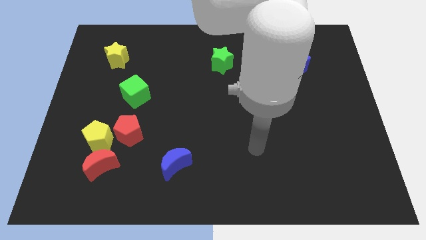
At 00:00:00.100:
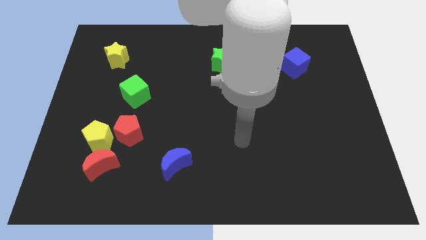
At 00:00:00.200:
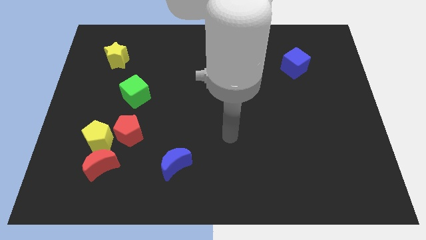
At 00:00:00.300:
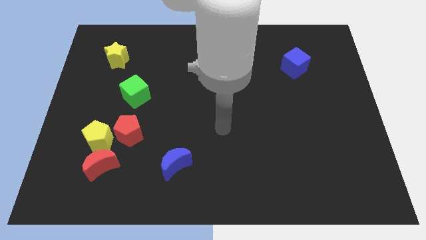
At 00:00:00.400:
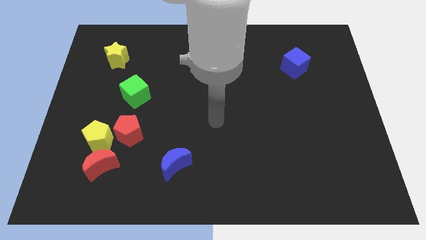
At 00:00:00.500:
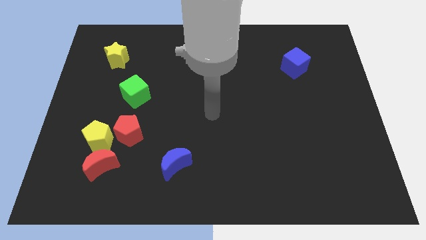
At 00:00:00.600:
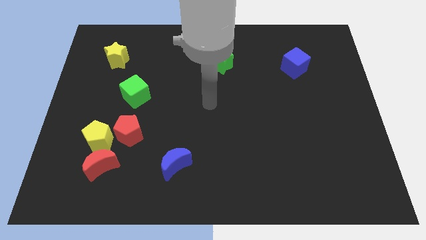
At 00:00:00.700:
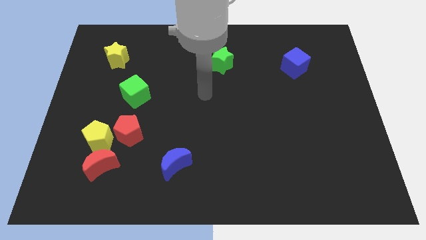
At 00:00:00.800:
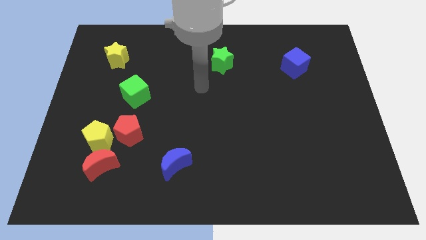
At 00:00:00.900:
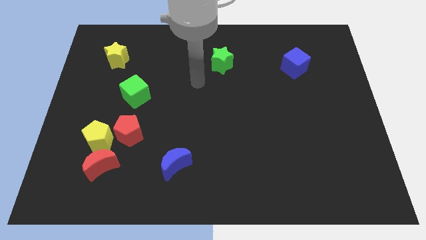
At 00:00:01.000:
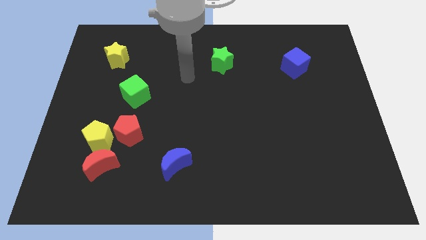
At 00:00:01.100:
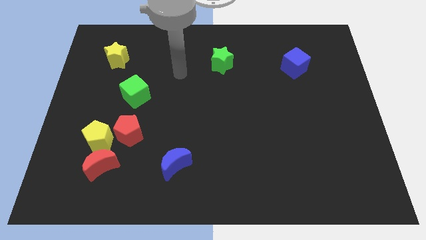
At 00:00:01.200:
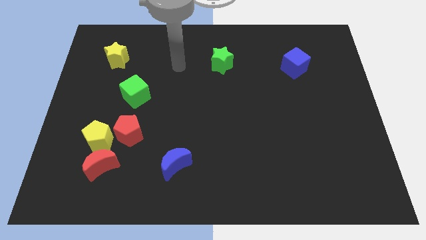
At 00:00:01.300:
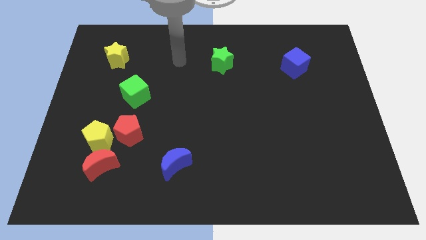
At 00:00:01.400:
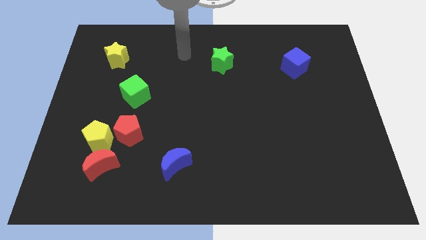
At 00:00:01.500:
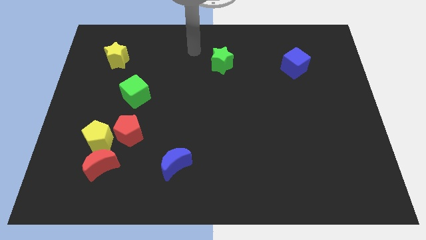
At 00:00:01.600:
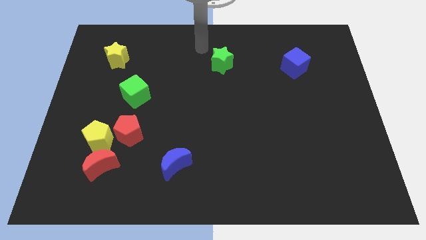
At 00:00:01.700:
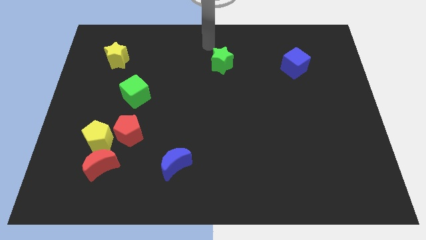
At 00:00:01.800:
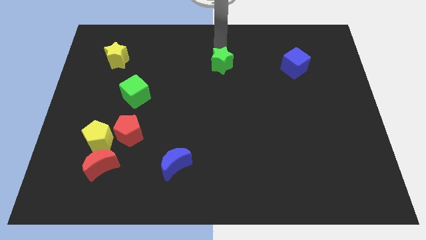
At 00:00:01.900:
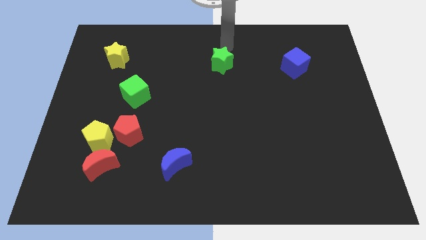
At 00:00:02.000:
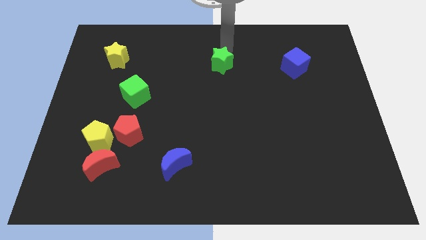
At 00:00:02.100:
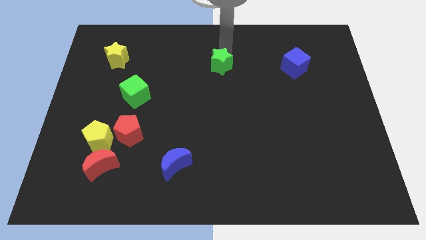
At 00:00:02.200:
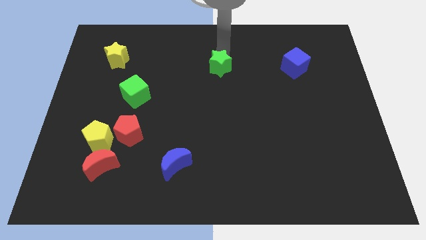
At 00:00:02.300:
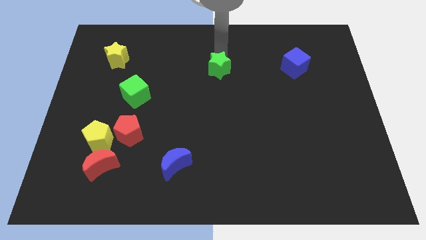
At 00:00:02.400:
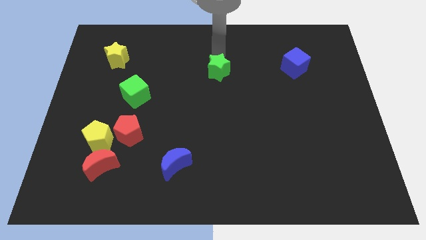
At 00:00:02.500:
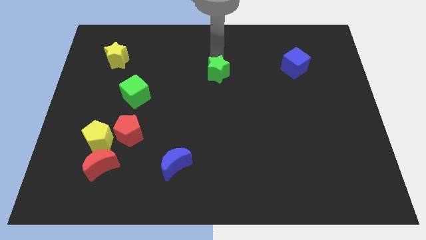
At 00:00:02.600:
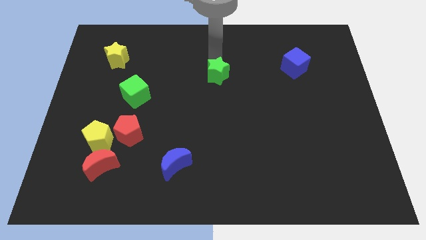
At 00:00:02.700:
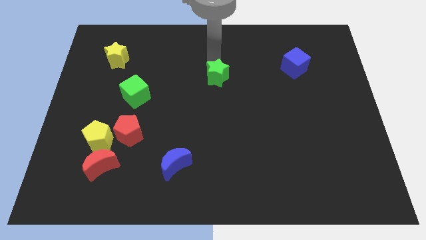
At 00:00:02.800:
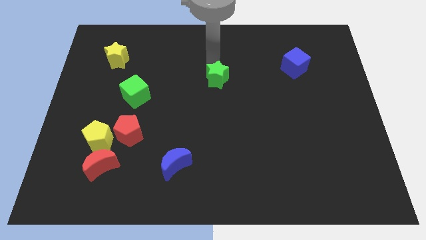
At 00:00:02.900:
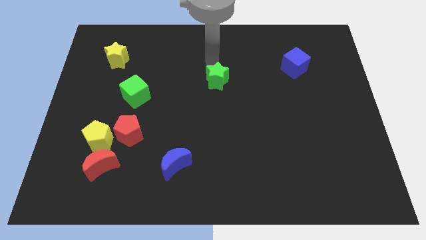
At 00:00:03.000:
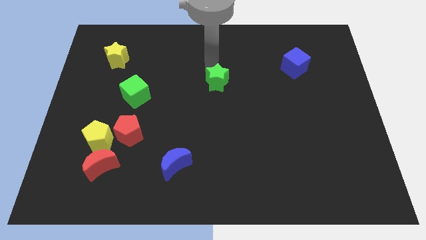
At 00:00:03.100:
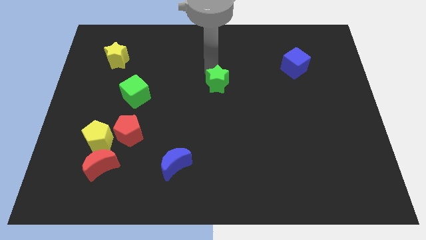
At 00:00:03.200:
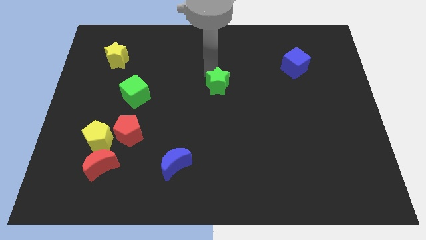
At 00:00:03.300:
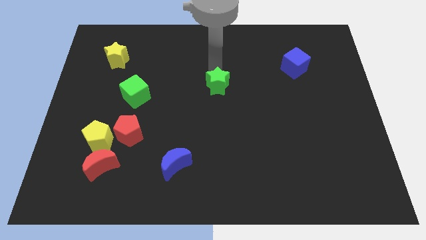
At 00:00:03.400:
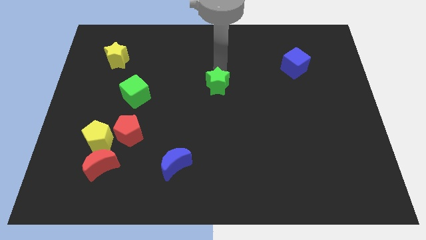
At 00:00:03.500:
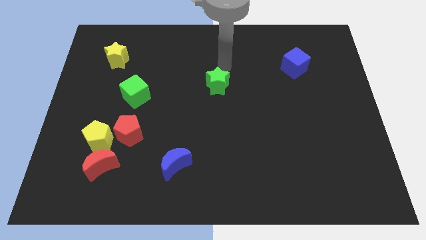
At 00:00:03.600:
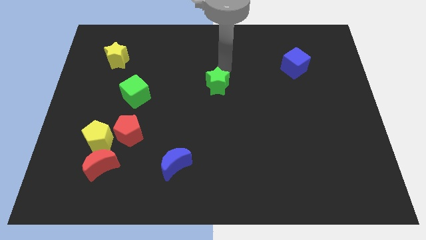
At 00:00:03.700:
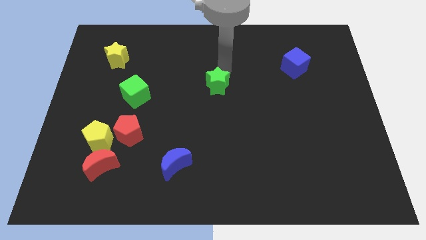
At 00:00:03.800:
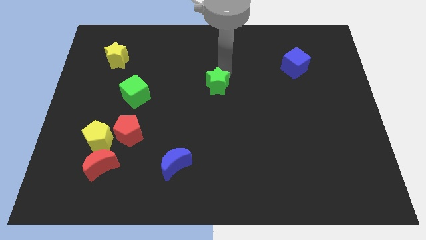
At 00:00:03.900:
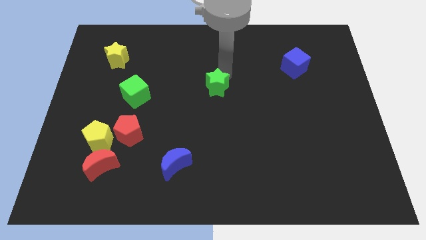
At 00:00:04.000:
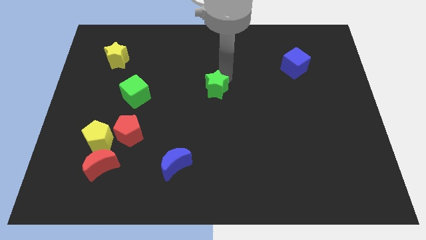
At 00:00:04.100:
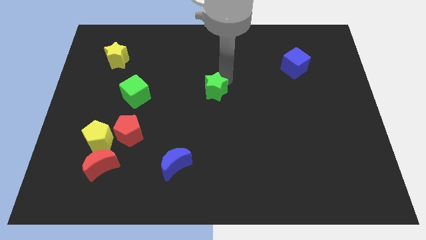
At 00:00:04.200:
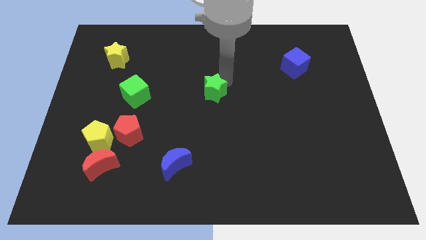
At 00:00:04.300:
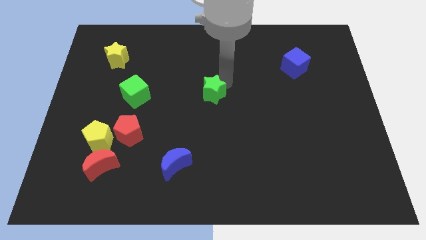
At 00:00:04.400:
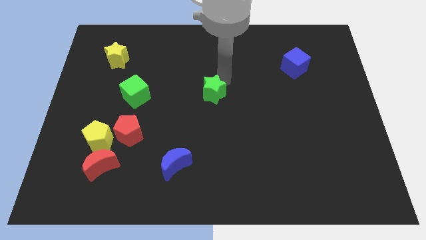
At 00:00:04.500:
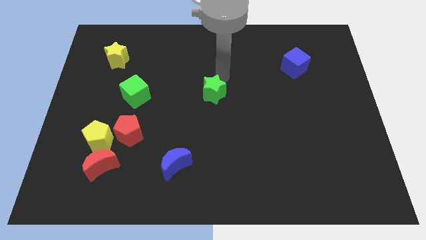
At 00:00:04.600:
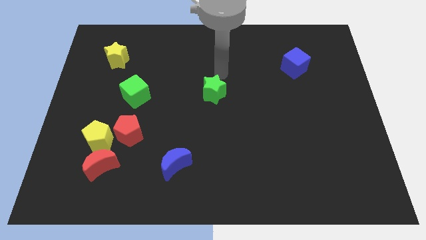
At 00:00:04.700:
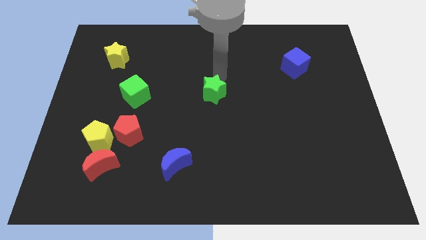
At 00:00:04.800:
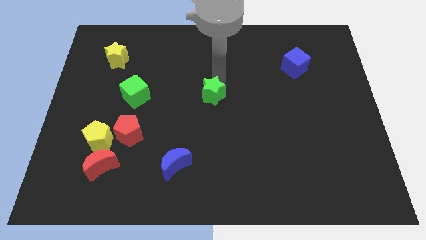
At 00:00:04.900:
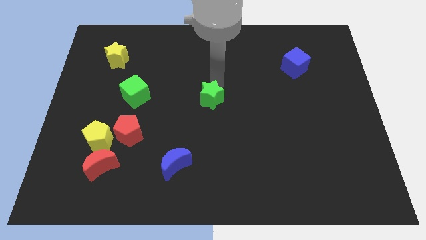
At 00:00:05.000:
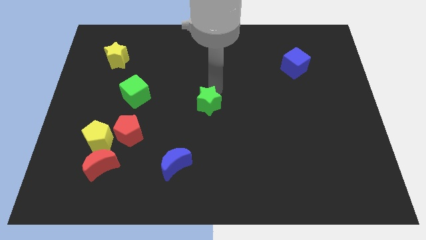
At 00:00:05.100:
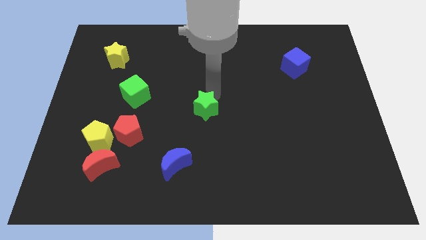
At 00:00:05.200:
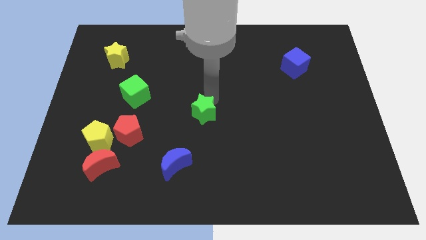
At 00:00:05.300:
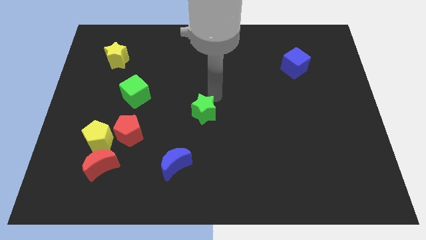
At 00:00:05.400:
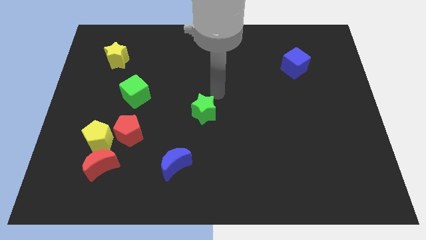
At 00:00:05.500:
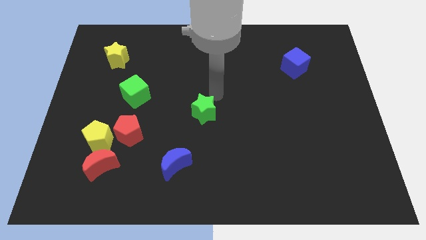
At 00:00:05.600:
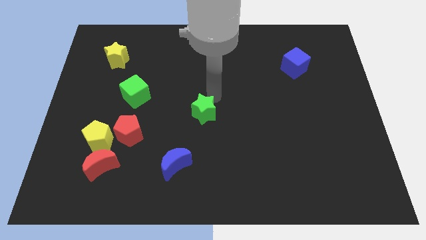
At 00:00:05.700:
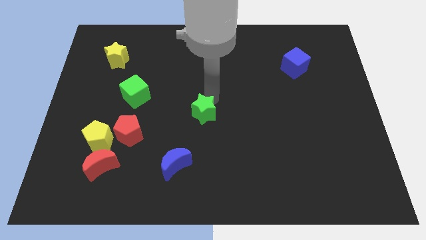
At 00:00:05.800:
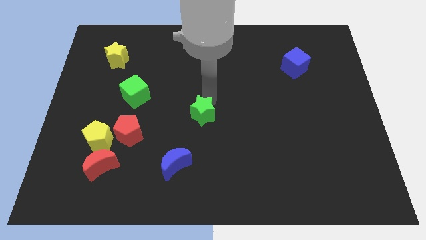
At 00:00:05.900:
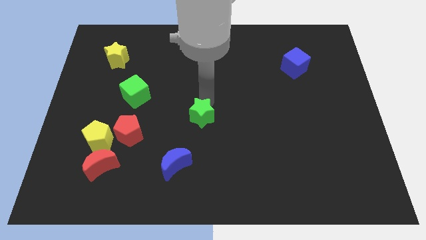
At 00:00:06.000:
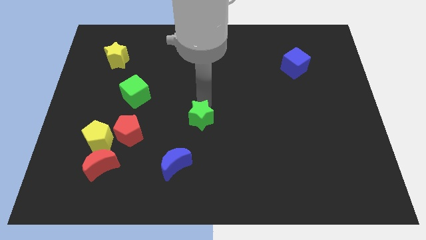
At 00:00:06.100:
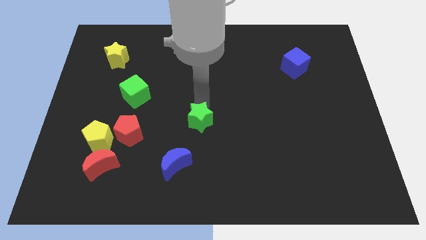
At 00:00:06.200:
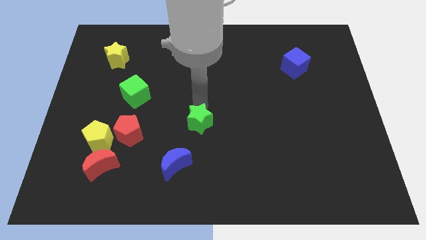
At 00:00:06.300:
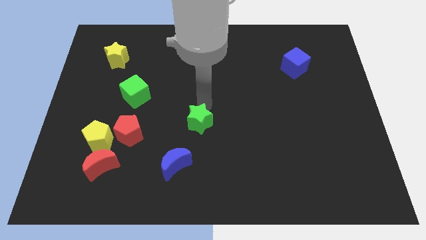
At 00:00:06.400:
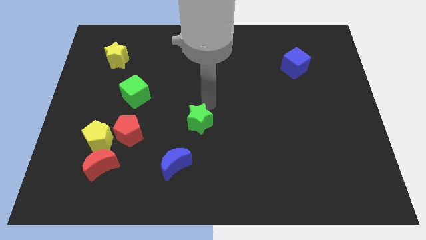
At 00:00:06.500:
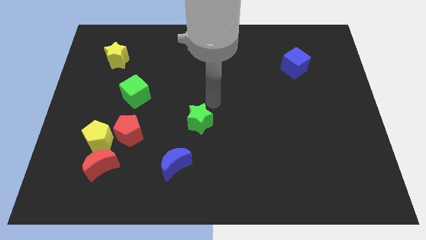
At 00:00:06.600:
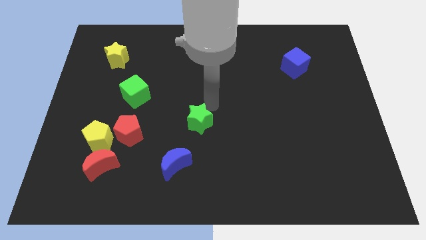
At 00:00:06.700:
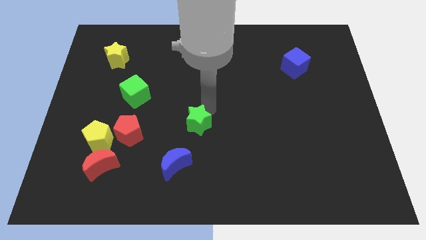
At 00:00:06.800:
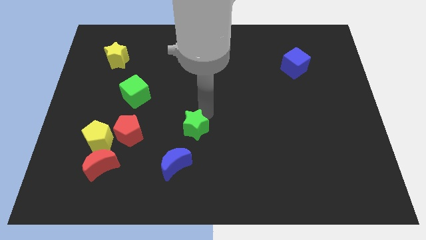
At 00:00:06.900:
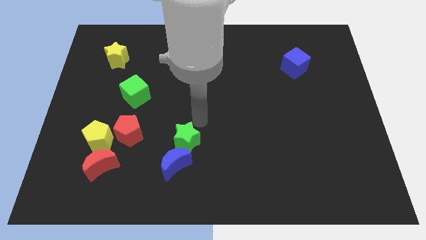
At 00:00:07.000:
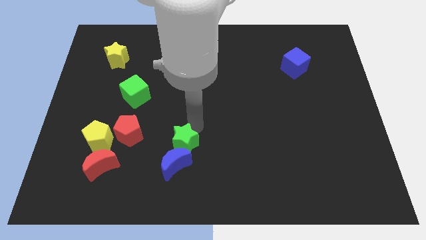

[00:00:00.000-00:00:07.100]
move the green star to the blue moon
